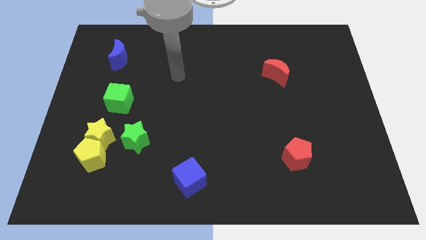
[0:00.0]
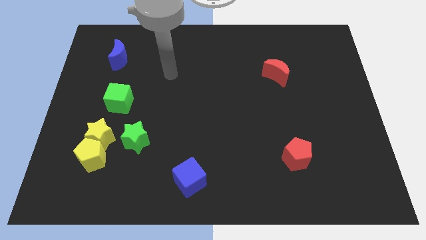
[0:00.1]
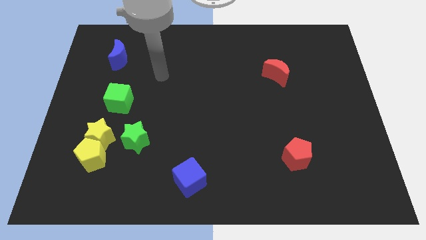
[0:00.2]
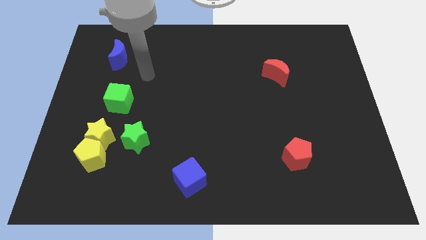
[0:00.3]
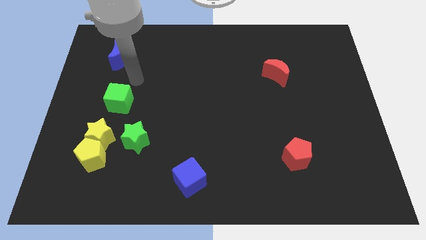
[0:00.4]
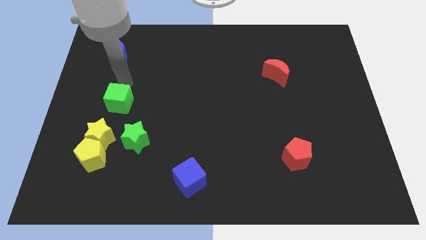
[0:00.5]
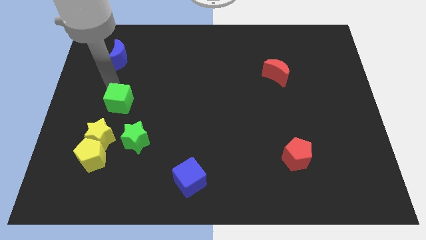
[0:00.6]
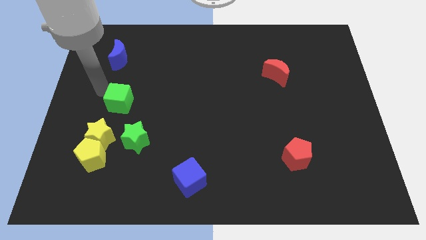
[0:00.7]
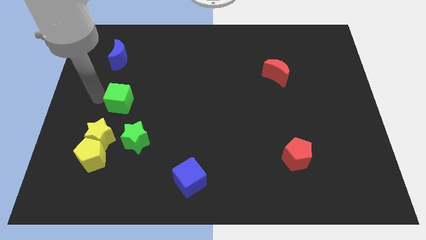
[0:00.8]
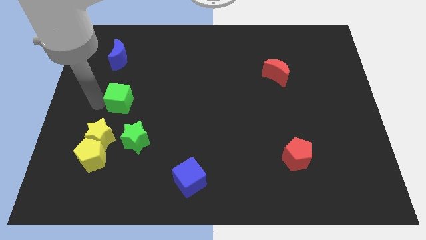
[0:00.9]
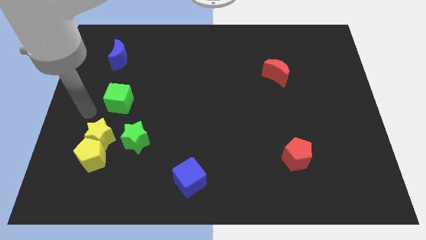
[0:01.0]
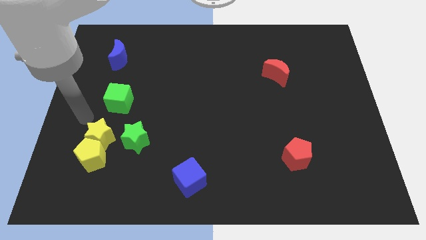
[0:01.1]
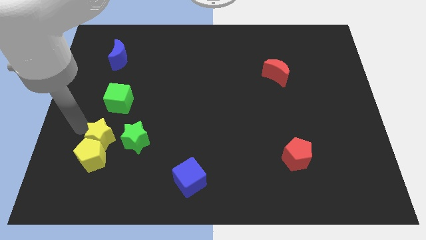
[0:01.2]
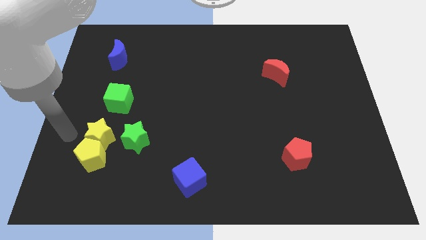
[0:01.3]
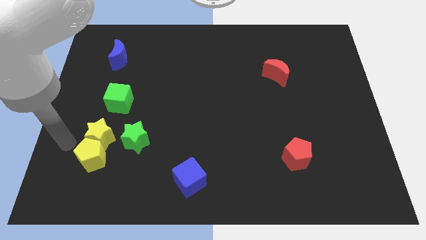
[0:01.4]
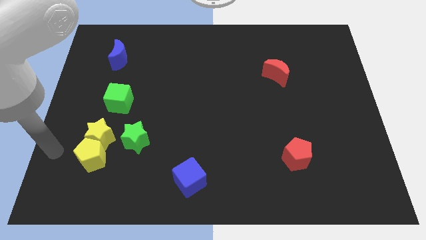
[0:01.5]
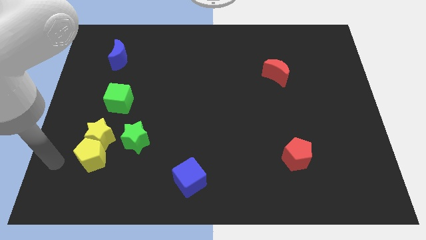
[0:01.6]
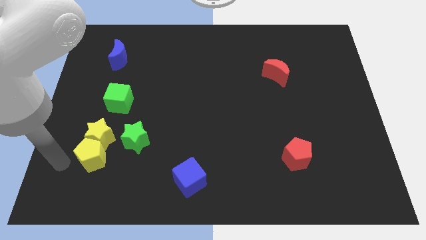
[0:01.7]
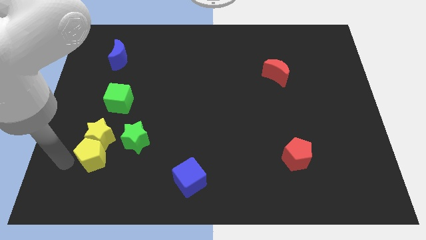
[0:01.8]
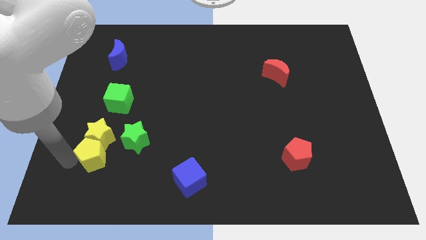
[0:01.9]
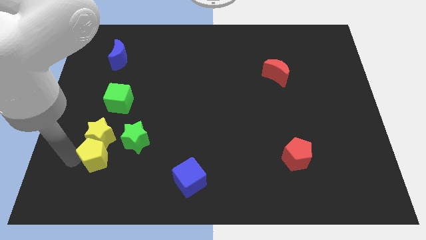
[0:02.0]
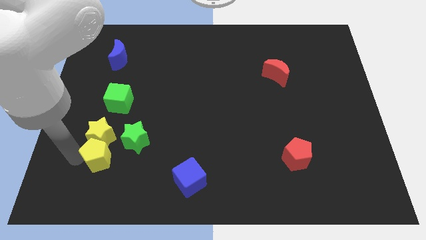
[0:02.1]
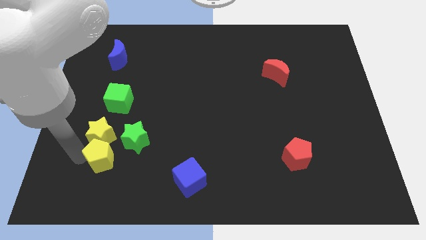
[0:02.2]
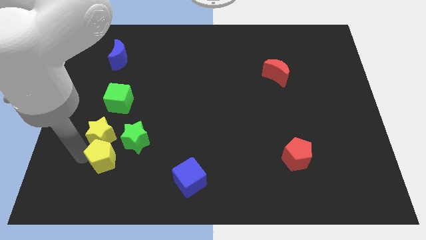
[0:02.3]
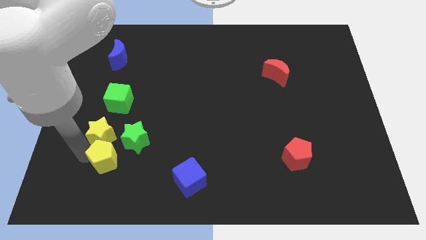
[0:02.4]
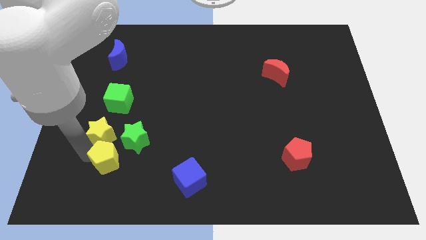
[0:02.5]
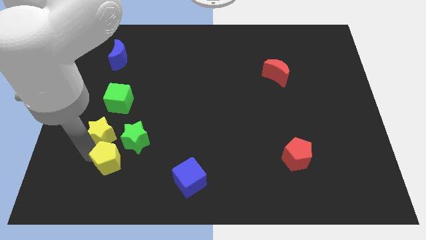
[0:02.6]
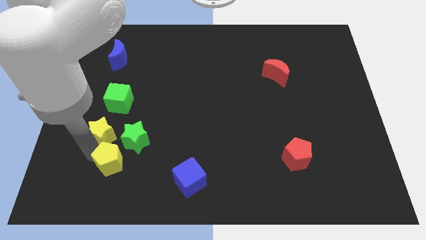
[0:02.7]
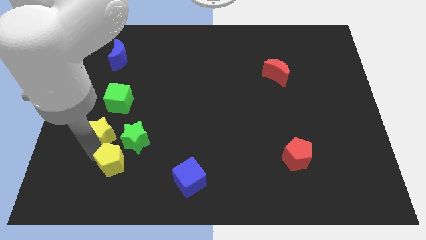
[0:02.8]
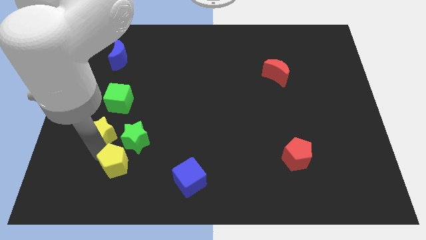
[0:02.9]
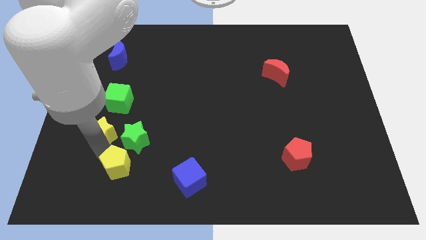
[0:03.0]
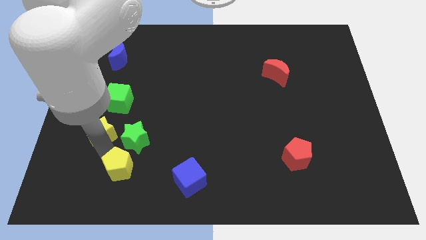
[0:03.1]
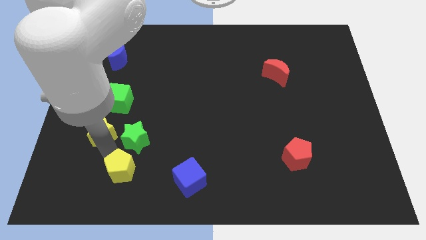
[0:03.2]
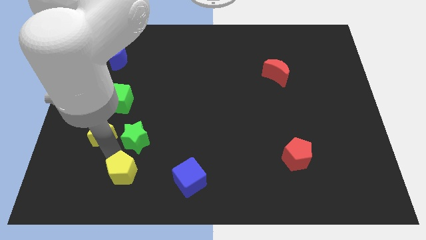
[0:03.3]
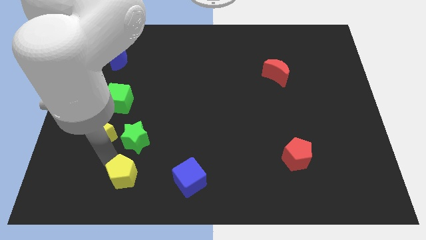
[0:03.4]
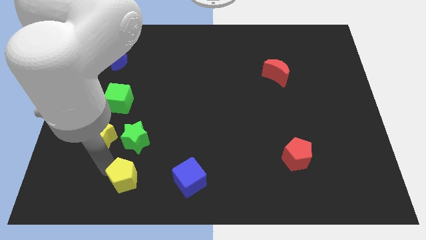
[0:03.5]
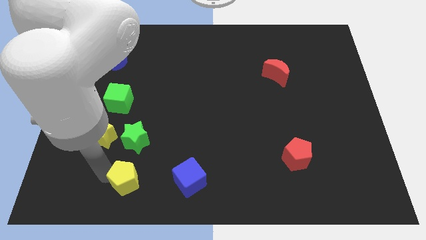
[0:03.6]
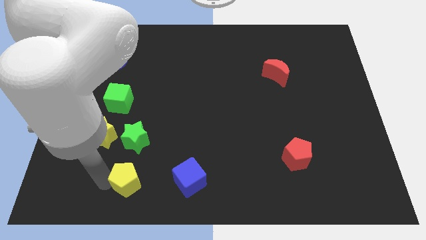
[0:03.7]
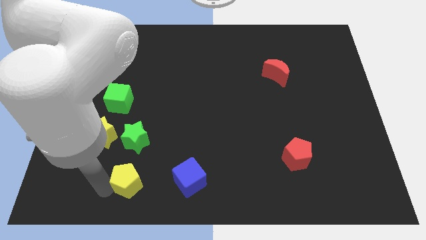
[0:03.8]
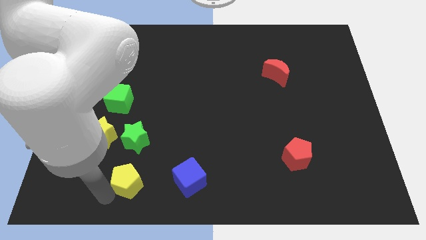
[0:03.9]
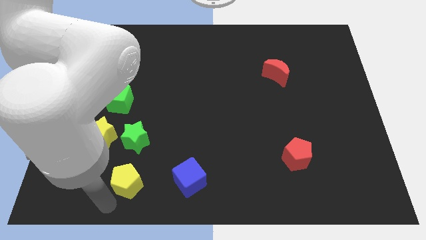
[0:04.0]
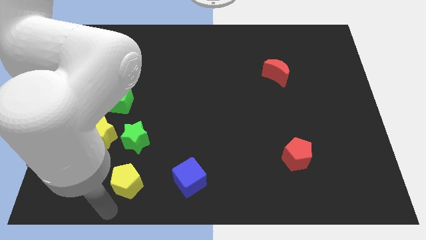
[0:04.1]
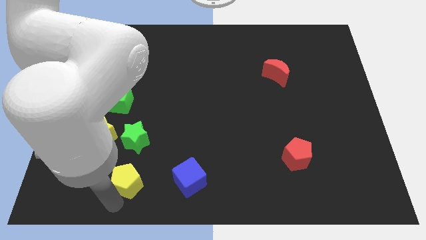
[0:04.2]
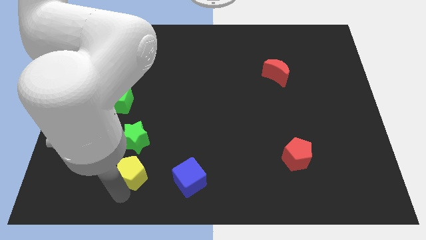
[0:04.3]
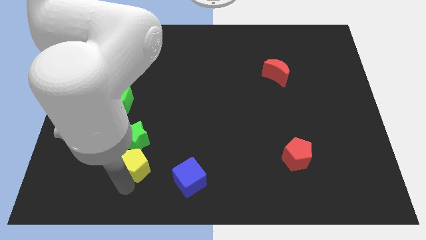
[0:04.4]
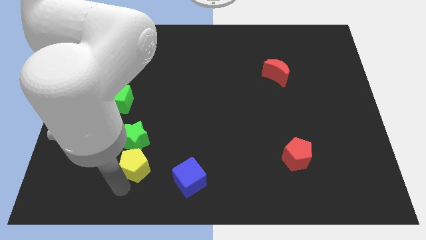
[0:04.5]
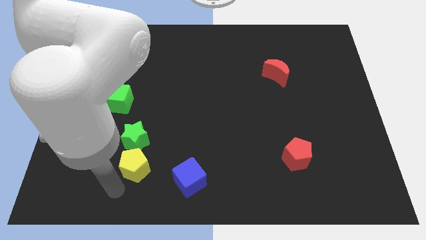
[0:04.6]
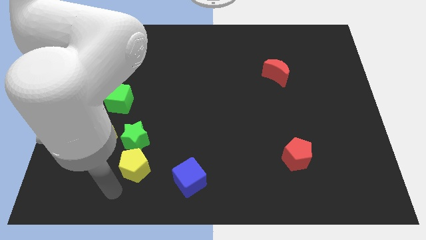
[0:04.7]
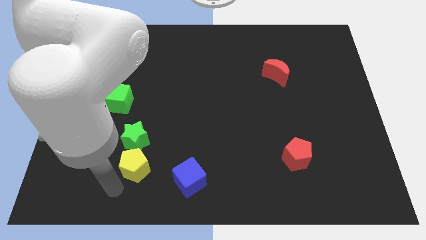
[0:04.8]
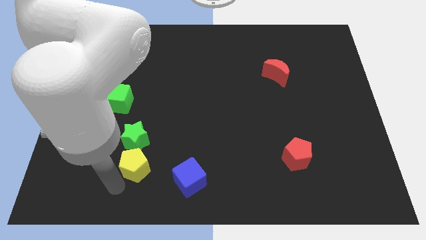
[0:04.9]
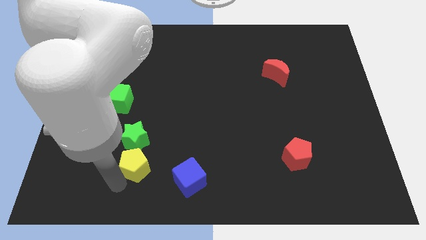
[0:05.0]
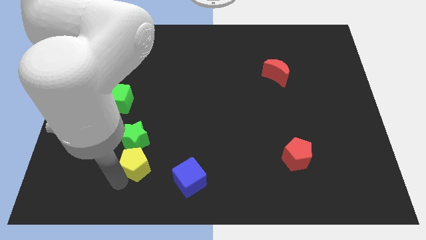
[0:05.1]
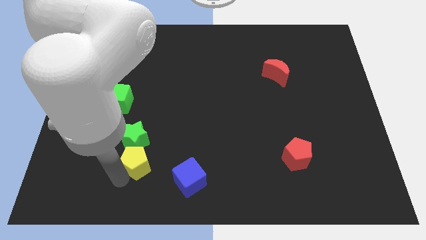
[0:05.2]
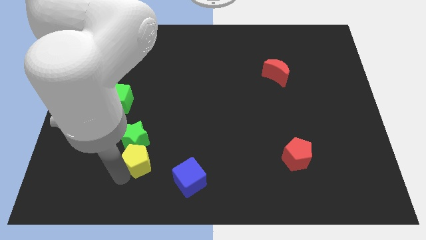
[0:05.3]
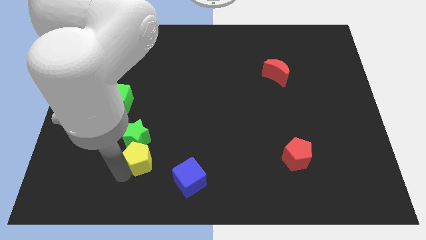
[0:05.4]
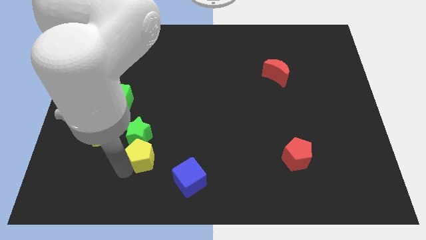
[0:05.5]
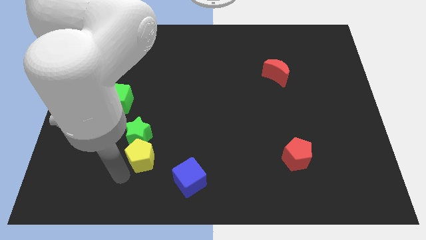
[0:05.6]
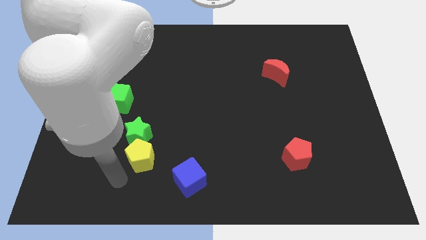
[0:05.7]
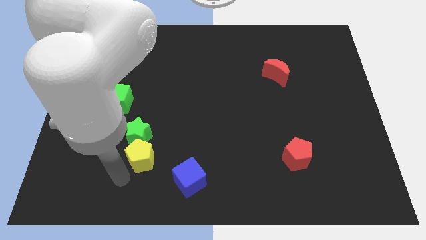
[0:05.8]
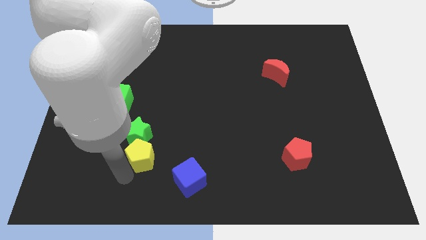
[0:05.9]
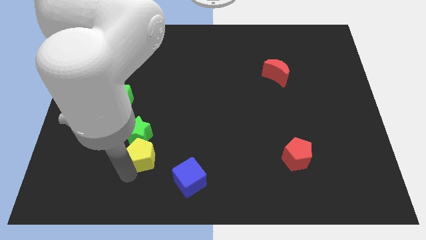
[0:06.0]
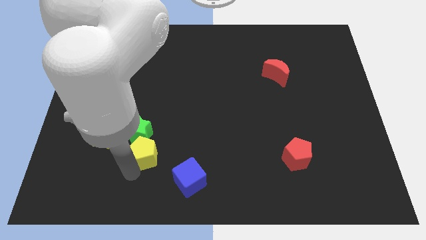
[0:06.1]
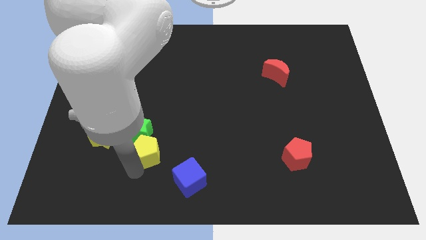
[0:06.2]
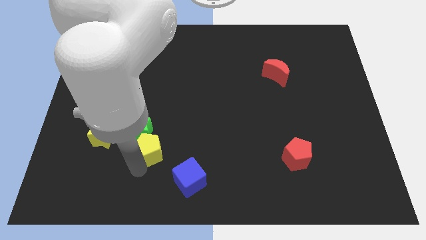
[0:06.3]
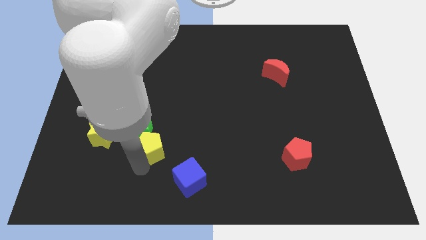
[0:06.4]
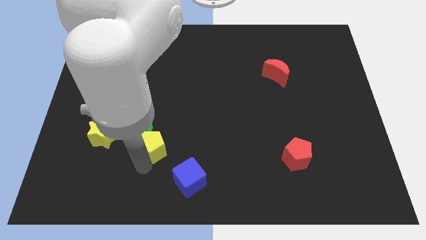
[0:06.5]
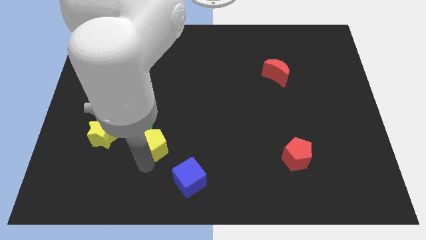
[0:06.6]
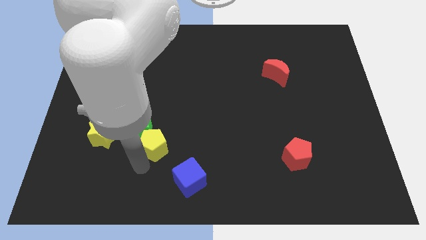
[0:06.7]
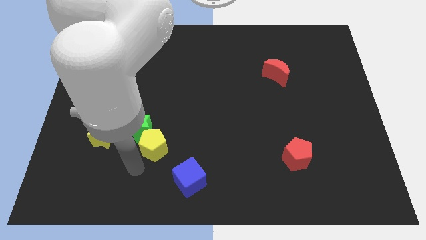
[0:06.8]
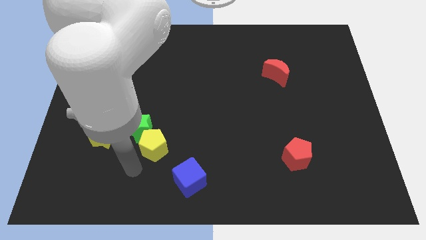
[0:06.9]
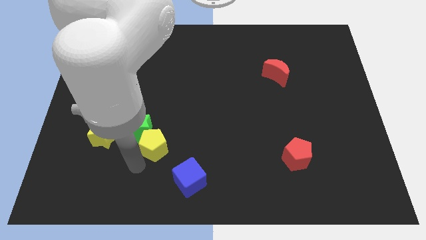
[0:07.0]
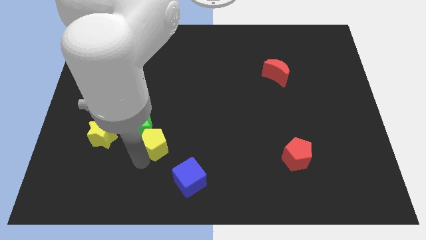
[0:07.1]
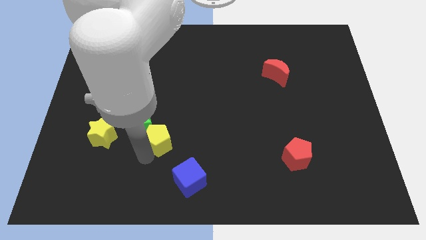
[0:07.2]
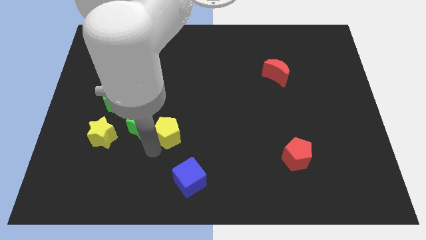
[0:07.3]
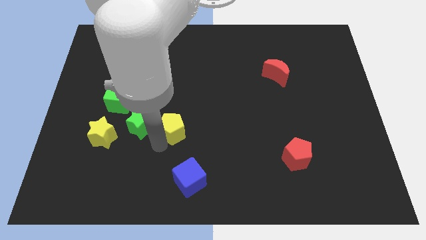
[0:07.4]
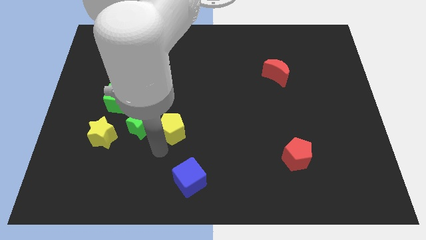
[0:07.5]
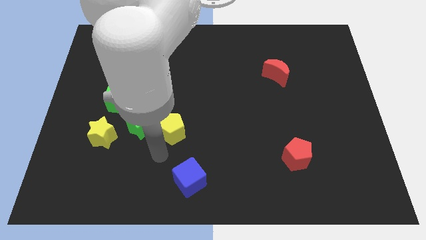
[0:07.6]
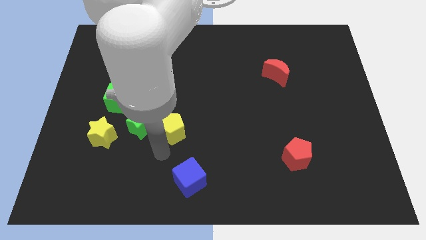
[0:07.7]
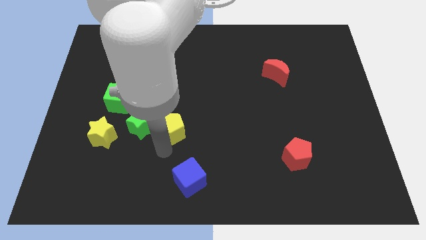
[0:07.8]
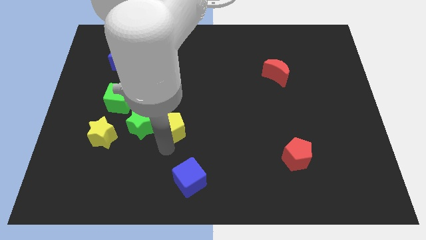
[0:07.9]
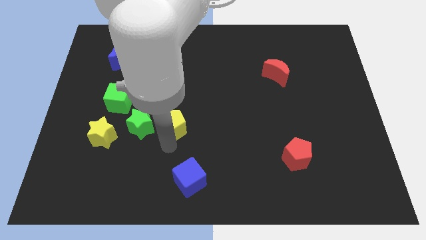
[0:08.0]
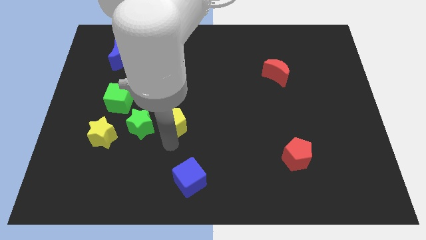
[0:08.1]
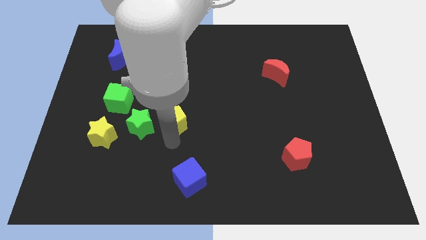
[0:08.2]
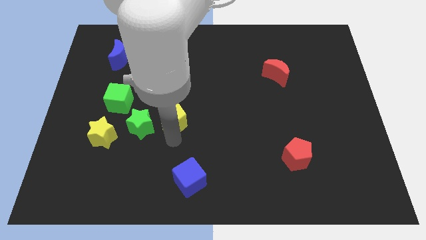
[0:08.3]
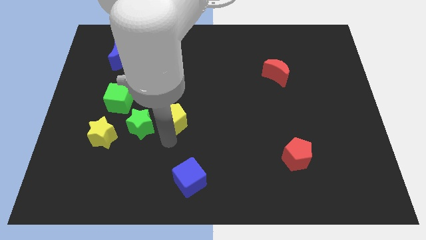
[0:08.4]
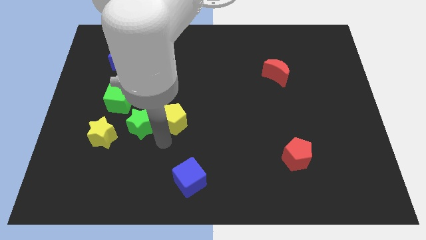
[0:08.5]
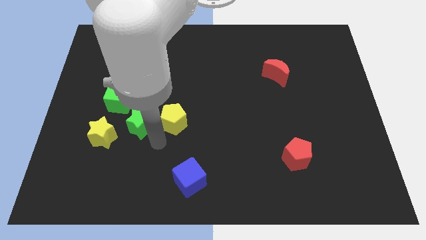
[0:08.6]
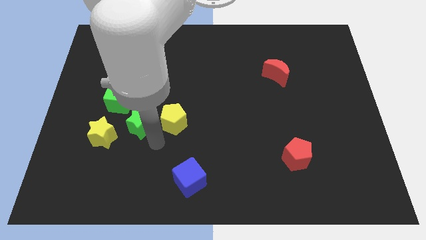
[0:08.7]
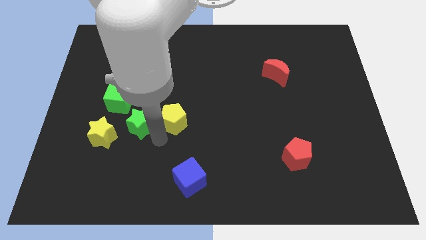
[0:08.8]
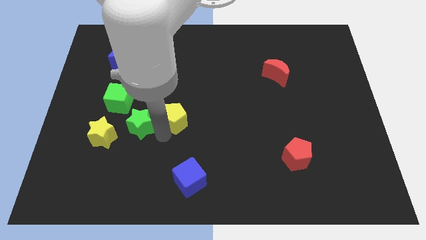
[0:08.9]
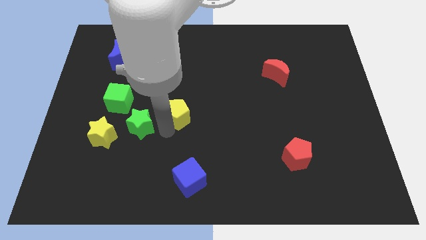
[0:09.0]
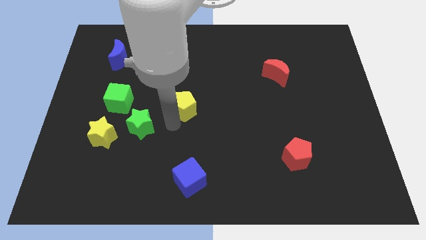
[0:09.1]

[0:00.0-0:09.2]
slide the yellow pentagon upwards and right
